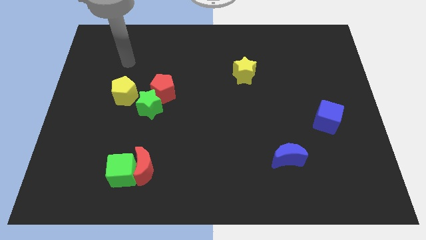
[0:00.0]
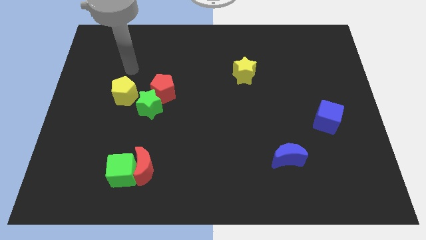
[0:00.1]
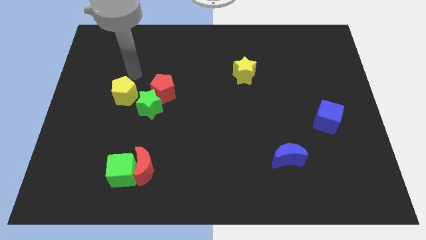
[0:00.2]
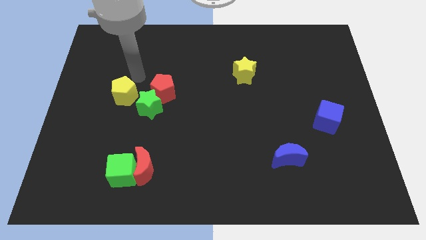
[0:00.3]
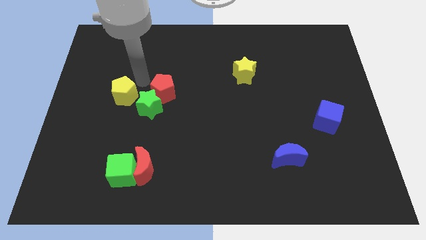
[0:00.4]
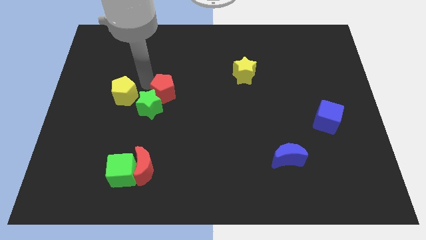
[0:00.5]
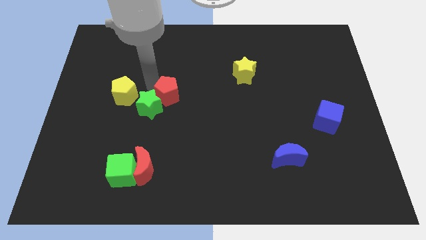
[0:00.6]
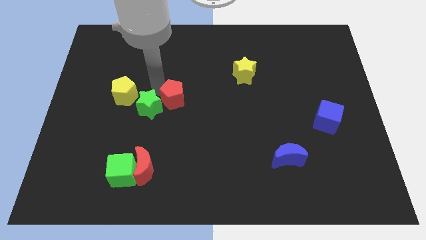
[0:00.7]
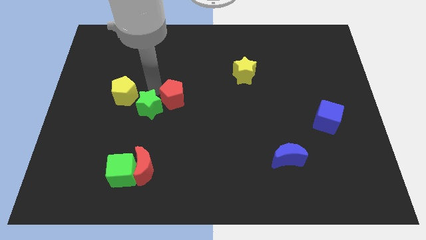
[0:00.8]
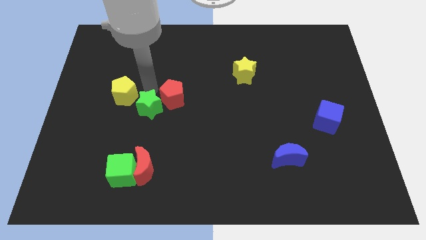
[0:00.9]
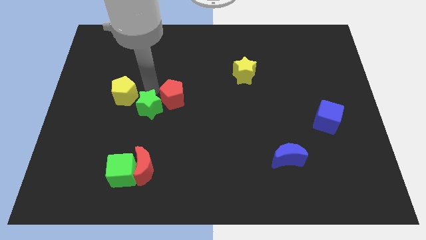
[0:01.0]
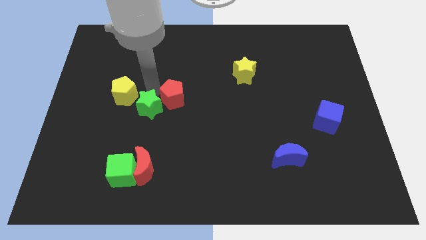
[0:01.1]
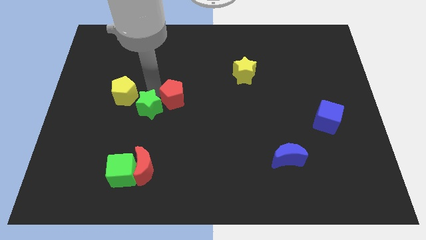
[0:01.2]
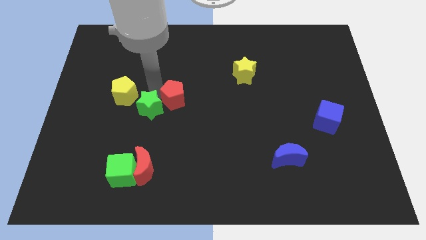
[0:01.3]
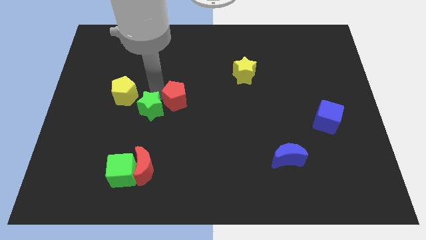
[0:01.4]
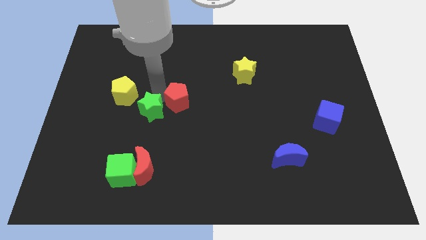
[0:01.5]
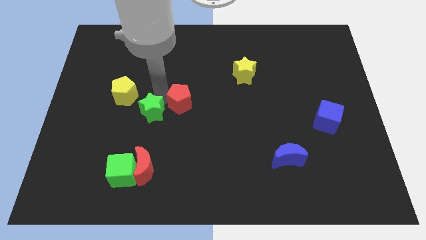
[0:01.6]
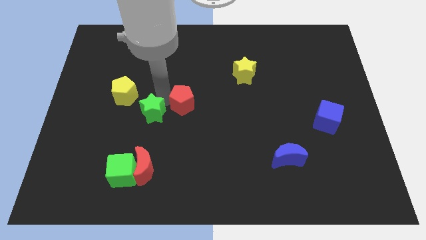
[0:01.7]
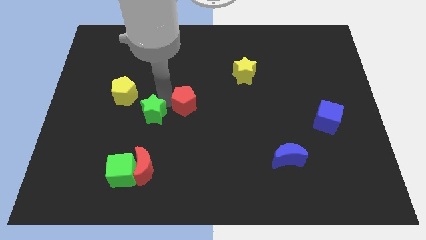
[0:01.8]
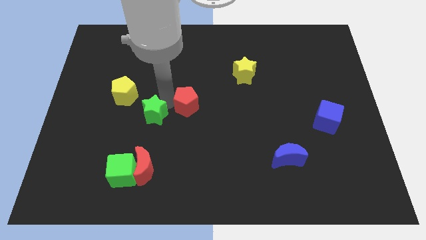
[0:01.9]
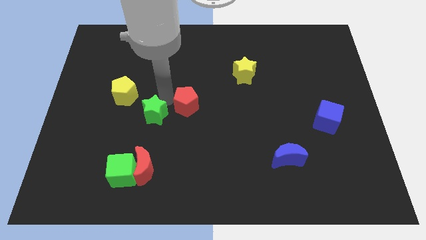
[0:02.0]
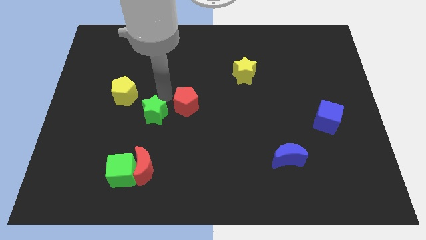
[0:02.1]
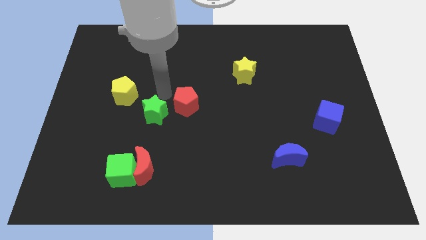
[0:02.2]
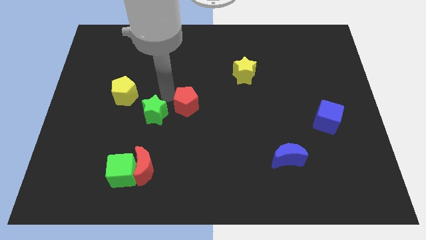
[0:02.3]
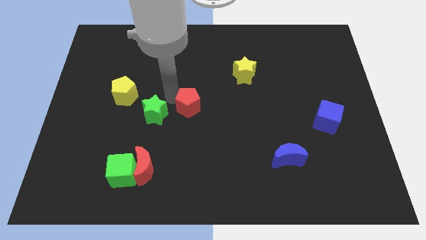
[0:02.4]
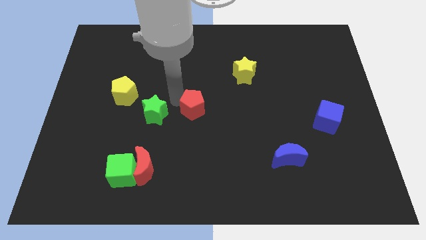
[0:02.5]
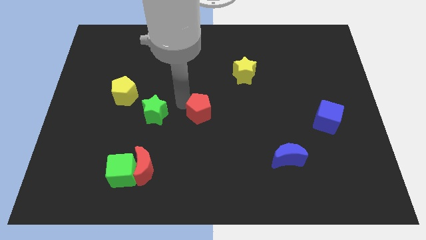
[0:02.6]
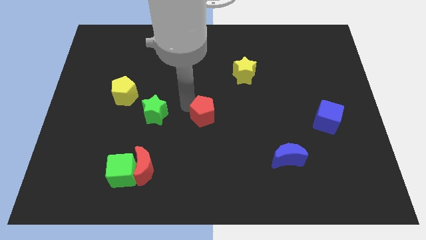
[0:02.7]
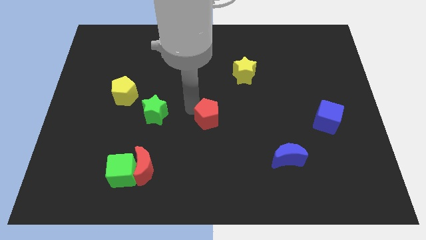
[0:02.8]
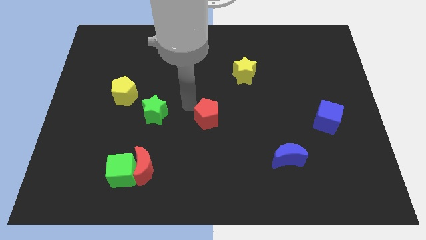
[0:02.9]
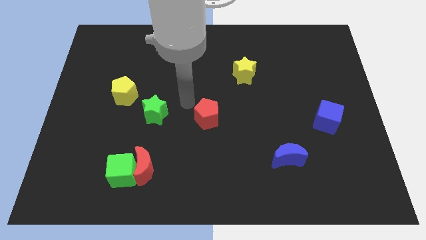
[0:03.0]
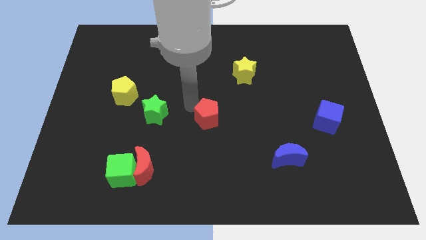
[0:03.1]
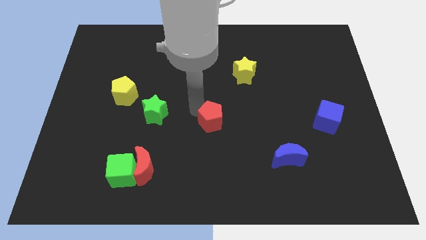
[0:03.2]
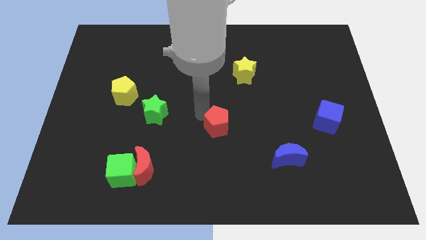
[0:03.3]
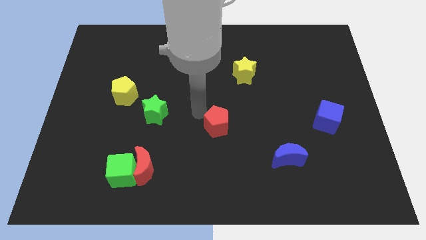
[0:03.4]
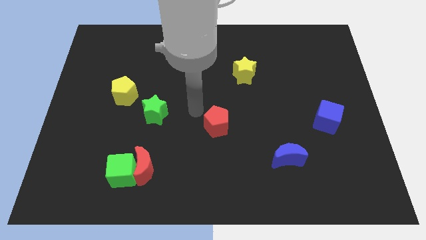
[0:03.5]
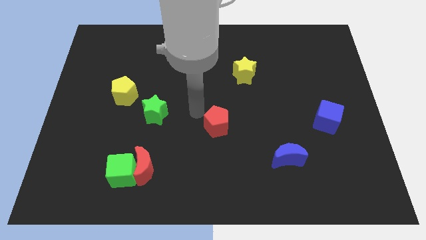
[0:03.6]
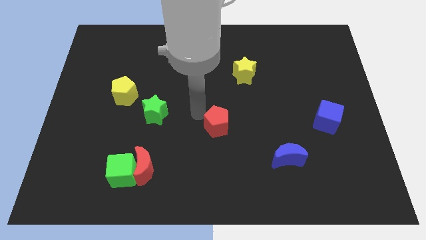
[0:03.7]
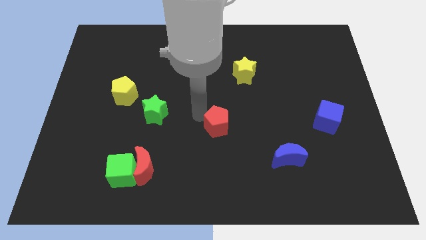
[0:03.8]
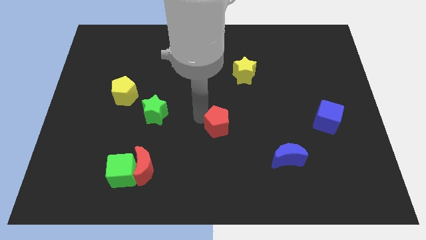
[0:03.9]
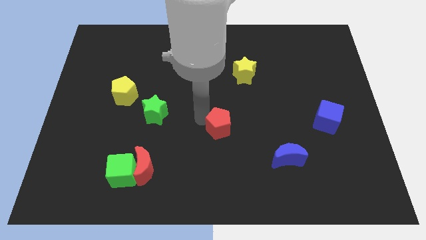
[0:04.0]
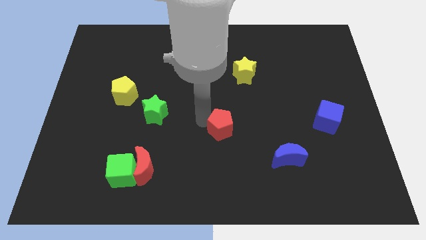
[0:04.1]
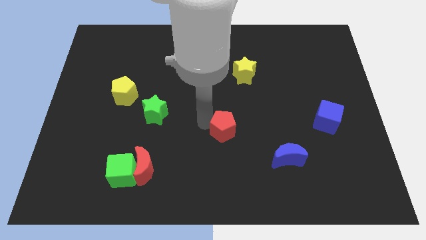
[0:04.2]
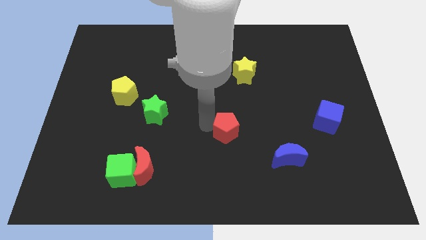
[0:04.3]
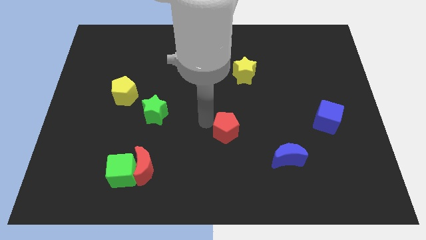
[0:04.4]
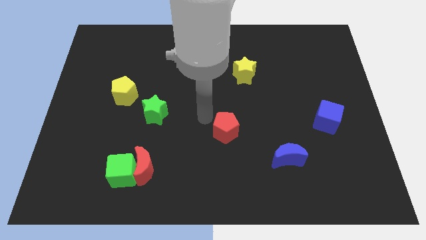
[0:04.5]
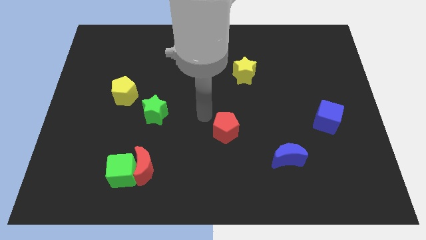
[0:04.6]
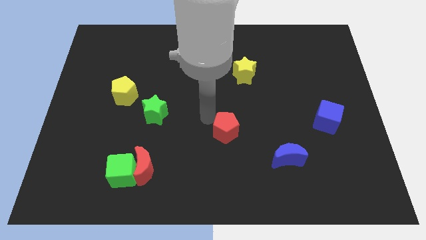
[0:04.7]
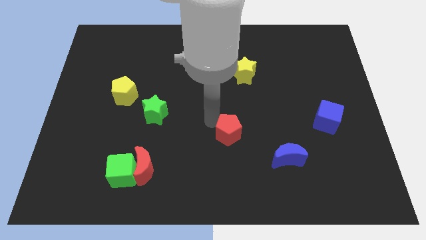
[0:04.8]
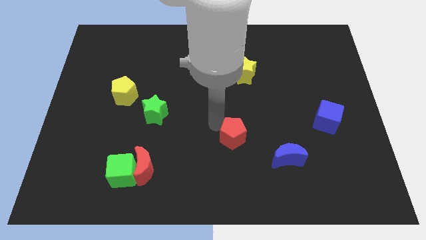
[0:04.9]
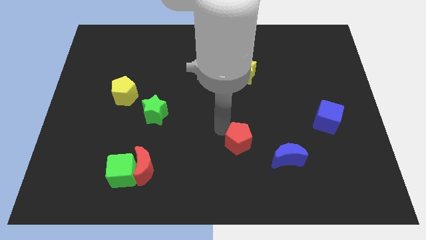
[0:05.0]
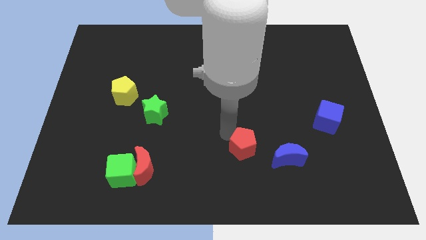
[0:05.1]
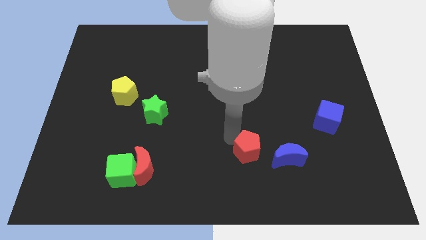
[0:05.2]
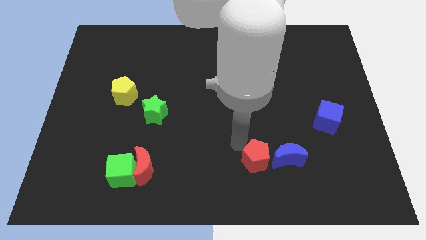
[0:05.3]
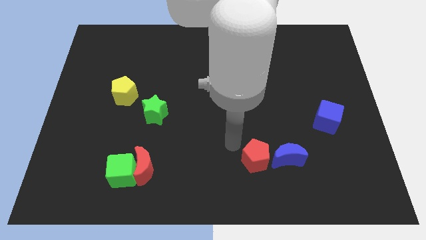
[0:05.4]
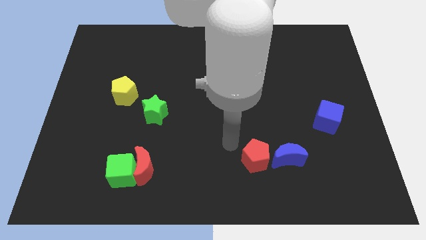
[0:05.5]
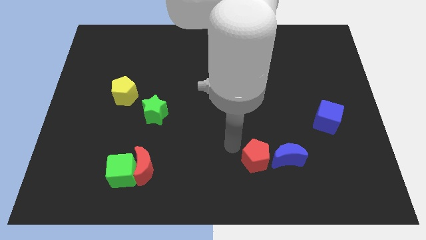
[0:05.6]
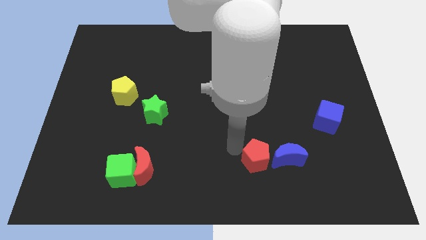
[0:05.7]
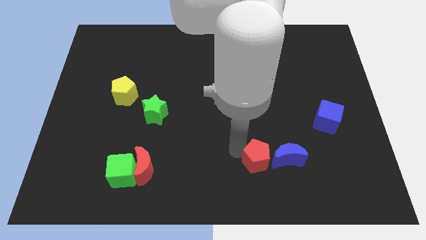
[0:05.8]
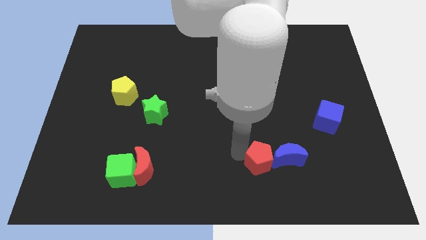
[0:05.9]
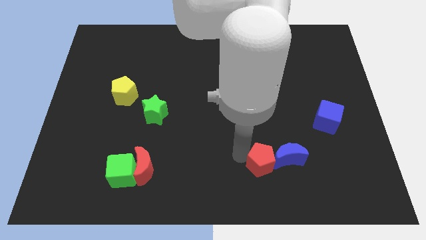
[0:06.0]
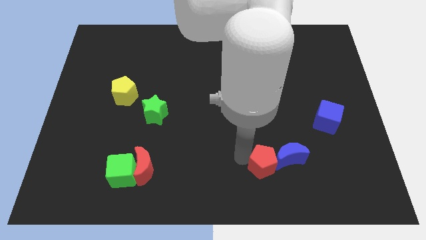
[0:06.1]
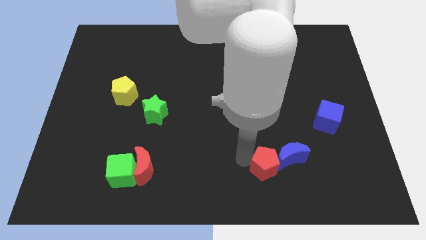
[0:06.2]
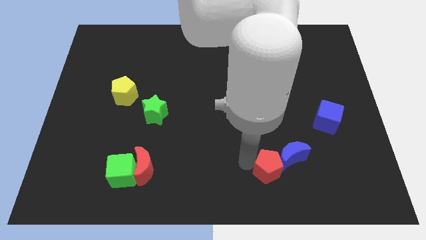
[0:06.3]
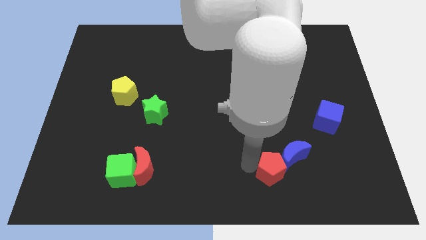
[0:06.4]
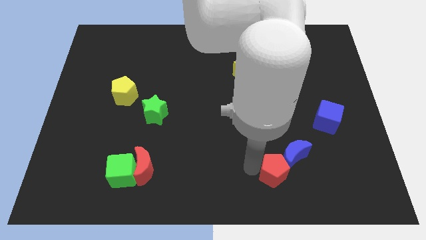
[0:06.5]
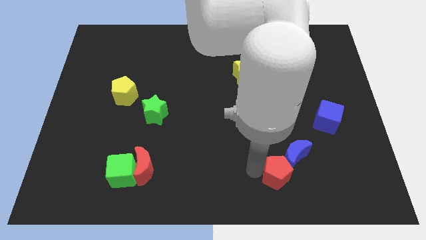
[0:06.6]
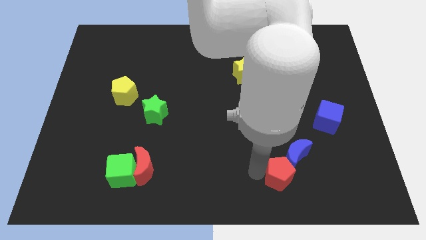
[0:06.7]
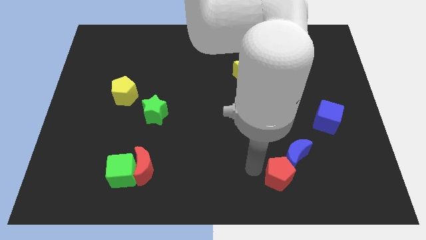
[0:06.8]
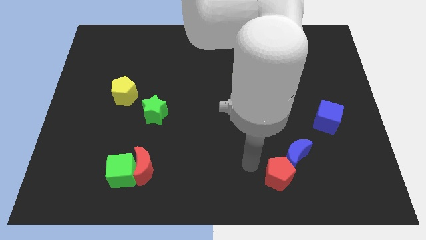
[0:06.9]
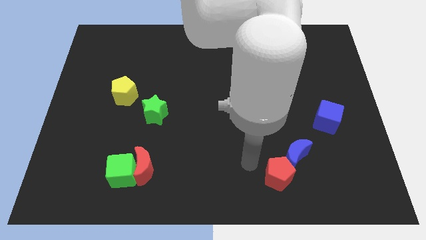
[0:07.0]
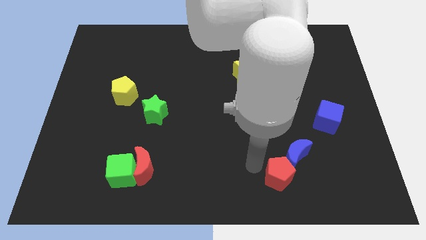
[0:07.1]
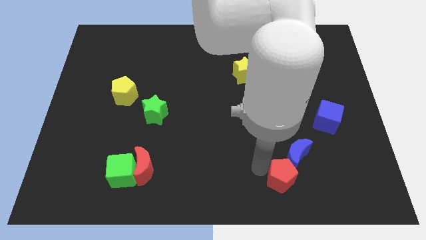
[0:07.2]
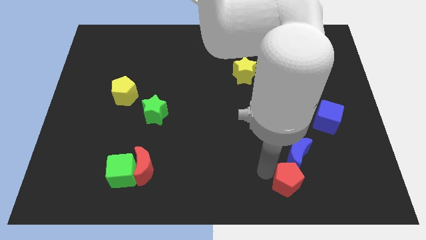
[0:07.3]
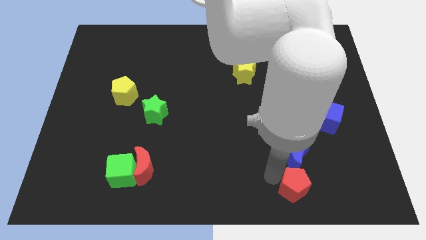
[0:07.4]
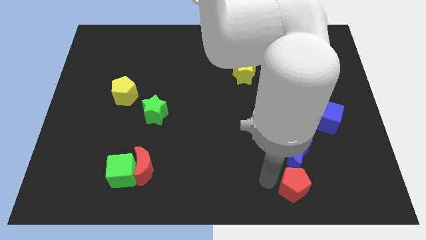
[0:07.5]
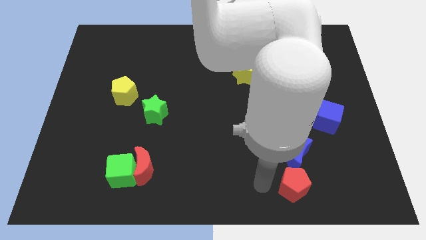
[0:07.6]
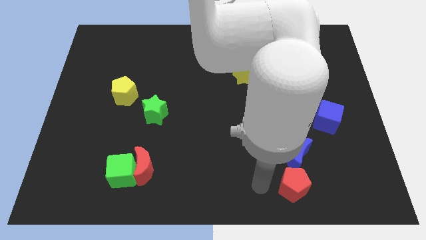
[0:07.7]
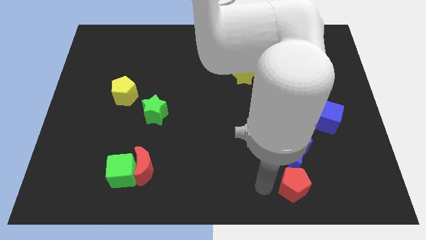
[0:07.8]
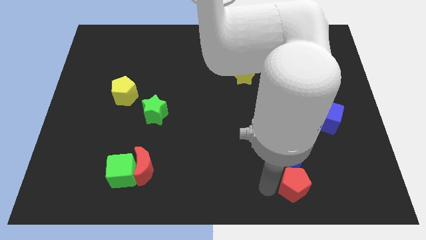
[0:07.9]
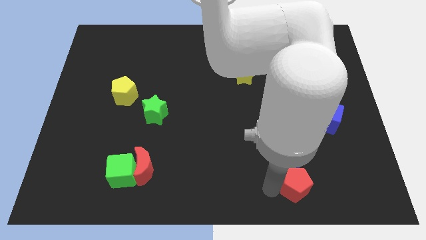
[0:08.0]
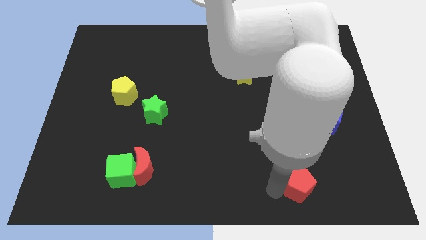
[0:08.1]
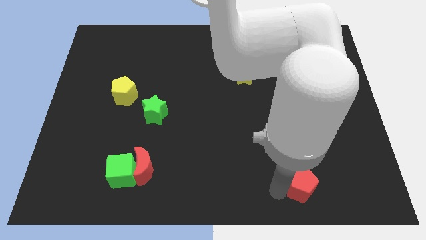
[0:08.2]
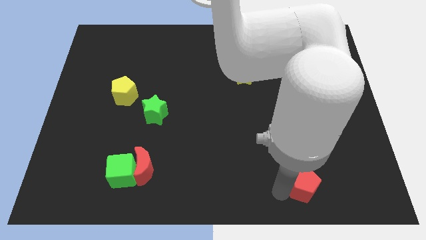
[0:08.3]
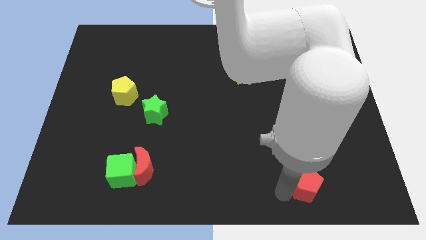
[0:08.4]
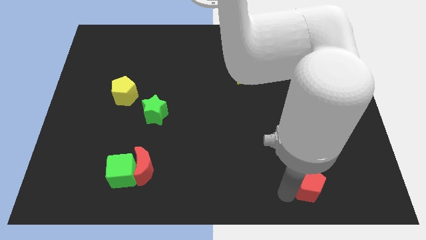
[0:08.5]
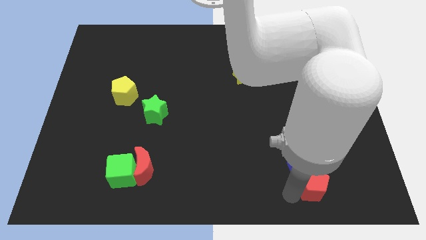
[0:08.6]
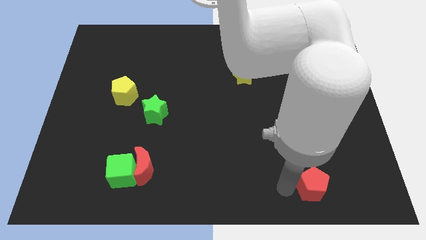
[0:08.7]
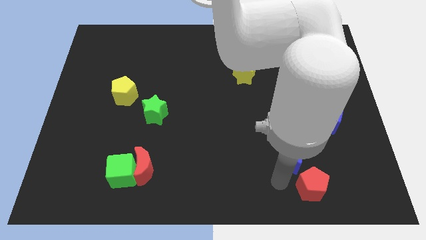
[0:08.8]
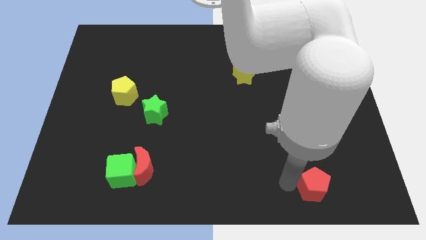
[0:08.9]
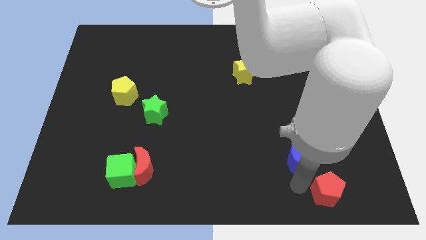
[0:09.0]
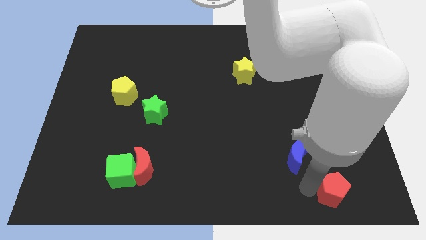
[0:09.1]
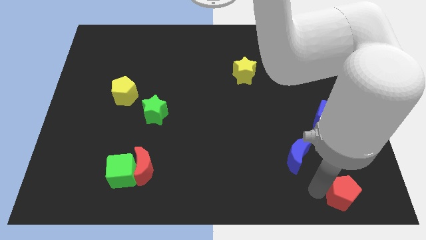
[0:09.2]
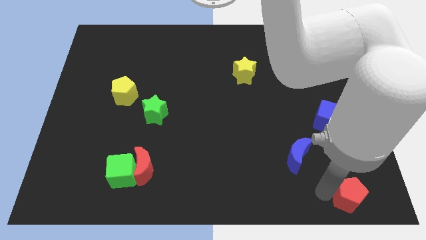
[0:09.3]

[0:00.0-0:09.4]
move the red pentagon to the bottom right corner
